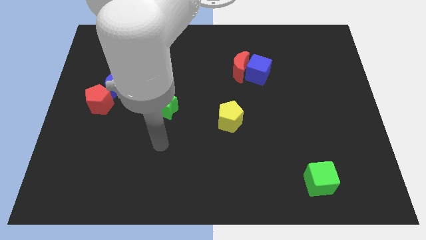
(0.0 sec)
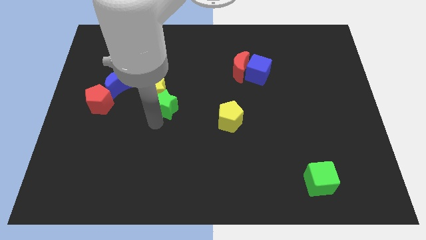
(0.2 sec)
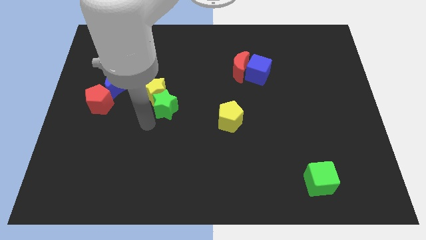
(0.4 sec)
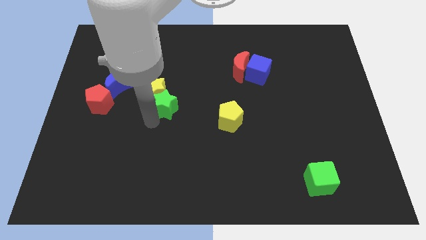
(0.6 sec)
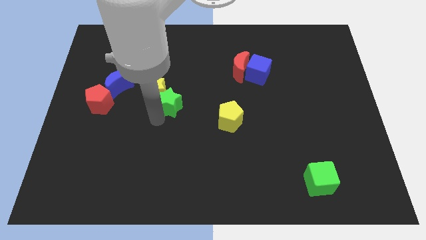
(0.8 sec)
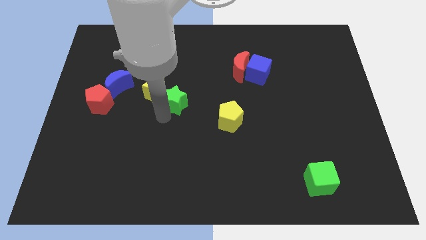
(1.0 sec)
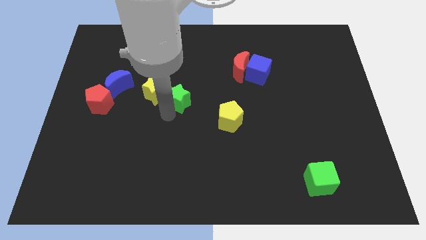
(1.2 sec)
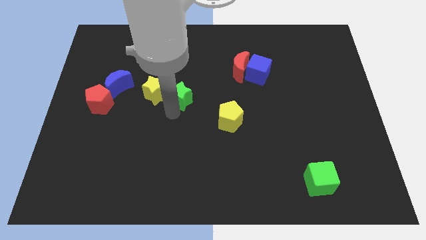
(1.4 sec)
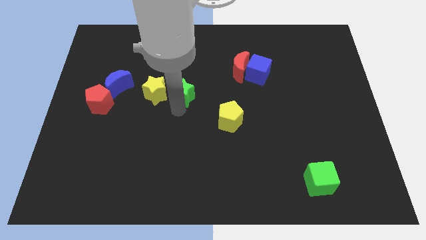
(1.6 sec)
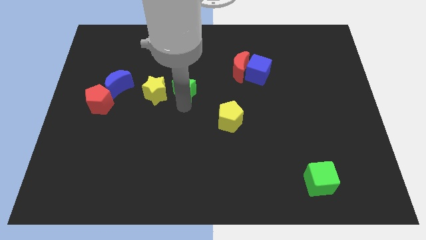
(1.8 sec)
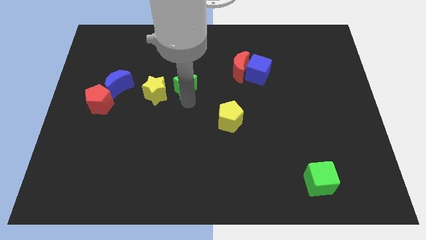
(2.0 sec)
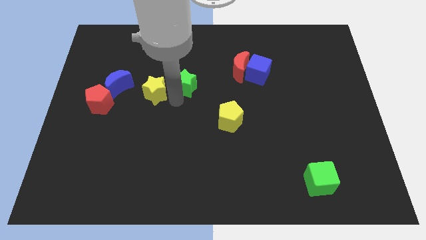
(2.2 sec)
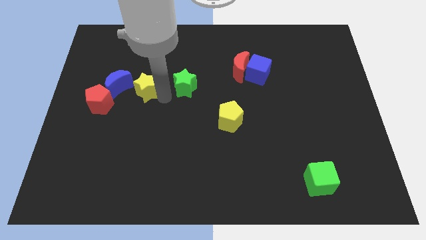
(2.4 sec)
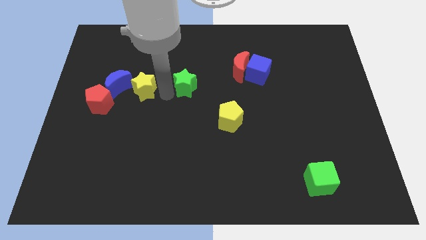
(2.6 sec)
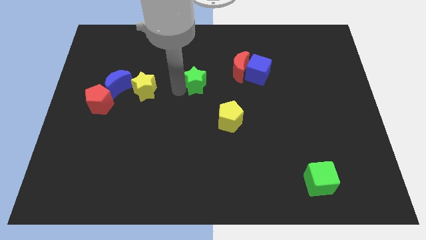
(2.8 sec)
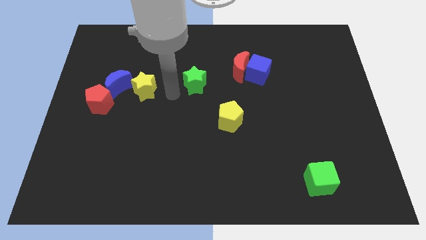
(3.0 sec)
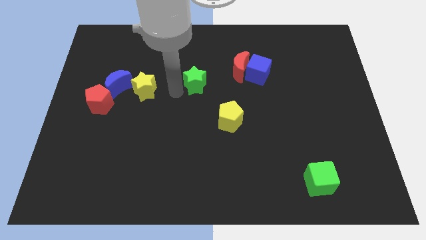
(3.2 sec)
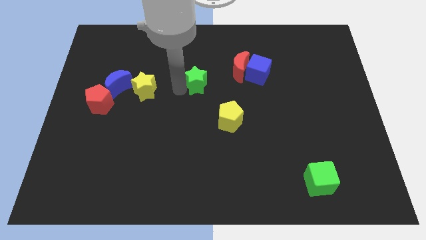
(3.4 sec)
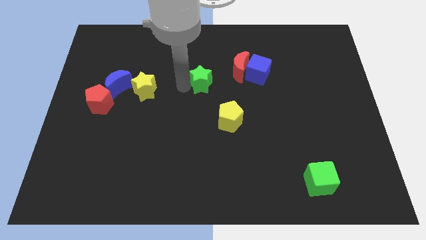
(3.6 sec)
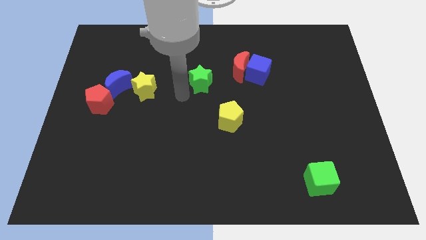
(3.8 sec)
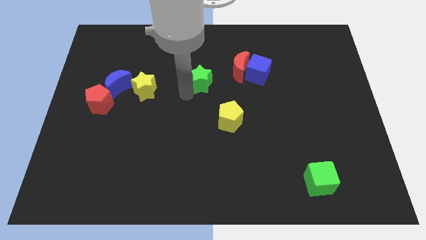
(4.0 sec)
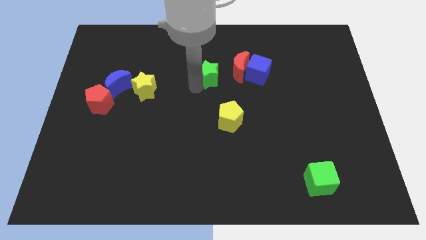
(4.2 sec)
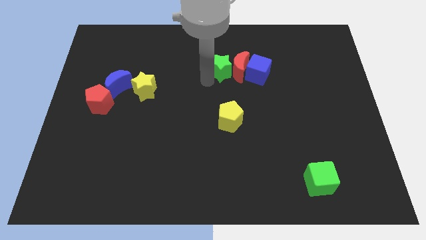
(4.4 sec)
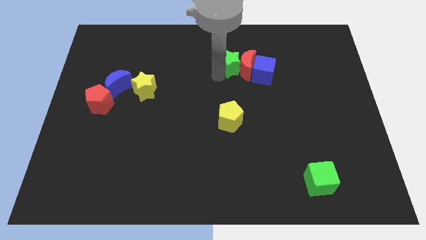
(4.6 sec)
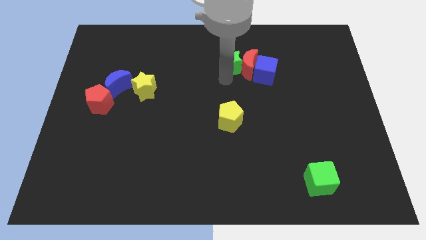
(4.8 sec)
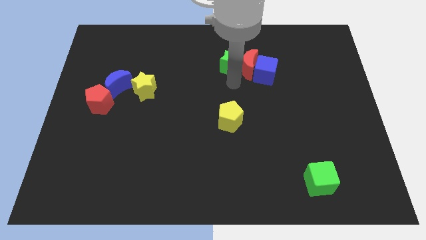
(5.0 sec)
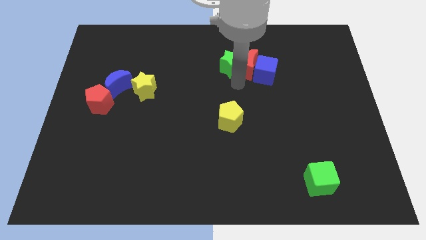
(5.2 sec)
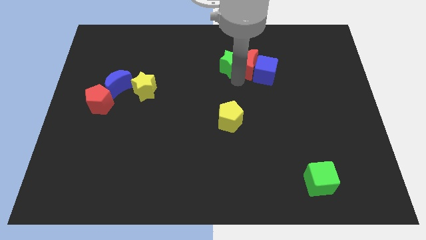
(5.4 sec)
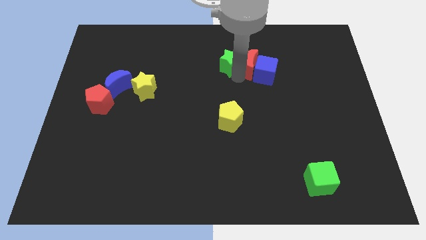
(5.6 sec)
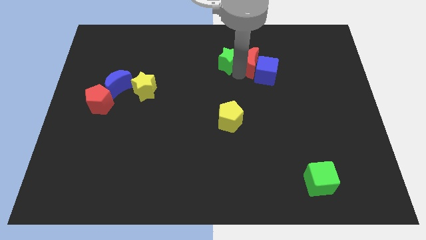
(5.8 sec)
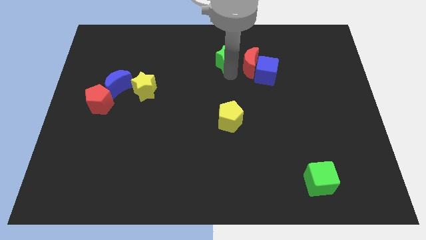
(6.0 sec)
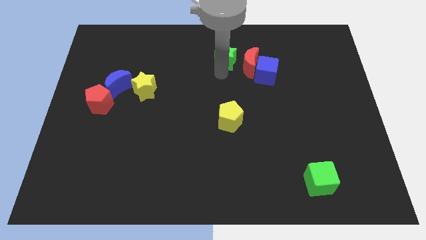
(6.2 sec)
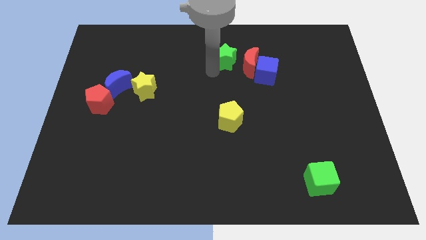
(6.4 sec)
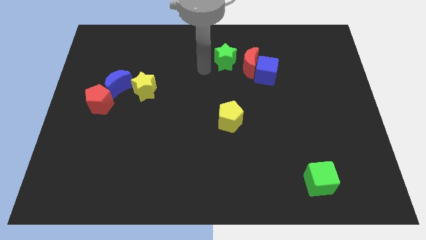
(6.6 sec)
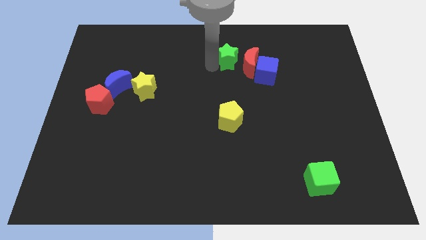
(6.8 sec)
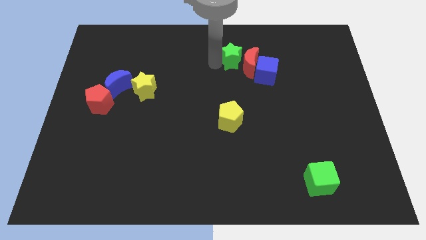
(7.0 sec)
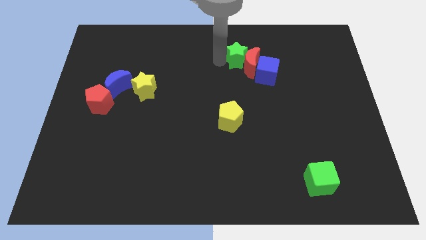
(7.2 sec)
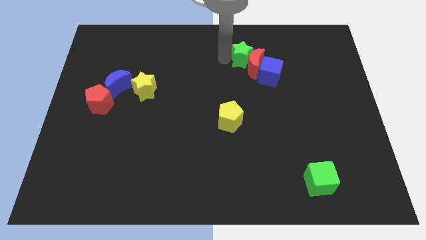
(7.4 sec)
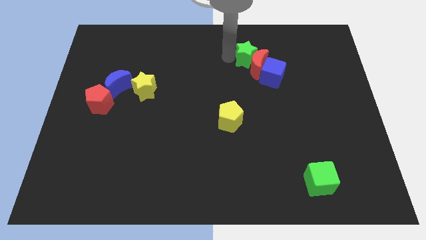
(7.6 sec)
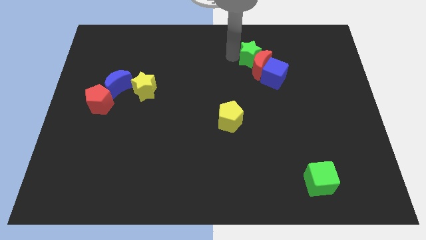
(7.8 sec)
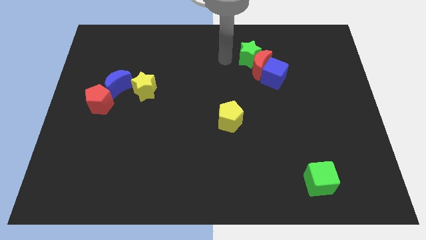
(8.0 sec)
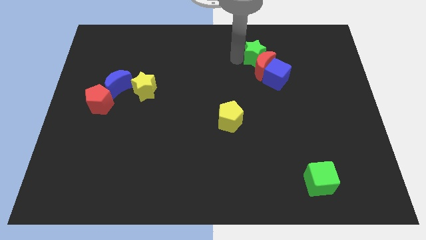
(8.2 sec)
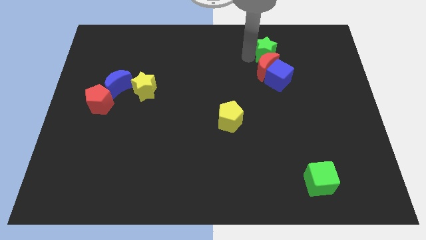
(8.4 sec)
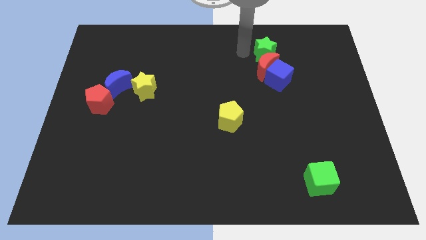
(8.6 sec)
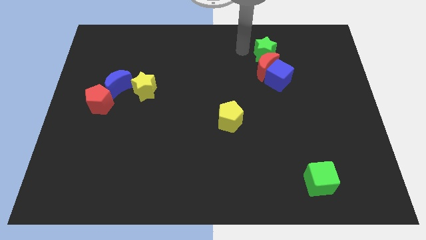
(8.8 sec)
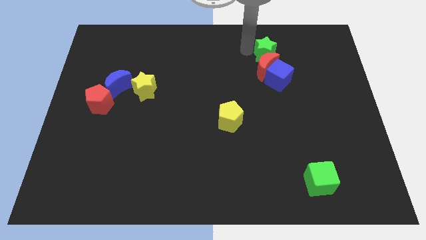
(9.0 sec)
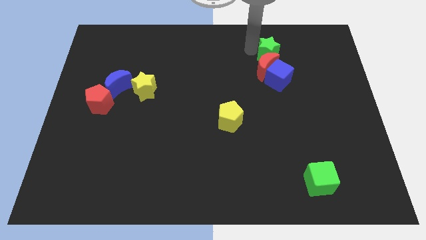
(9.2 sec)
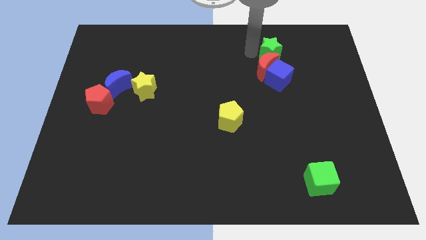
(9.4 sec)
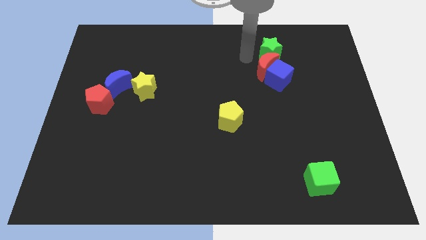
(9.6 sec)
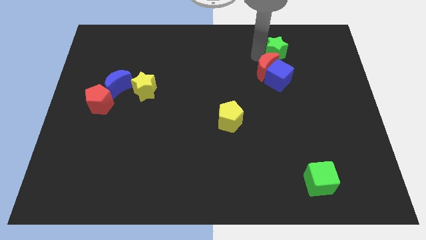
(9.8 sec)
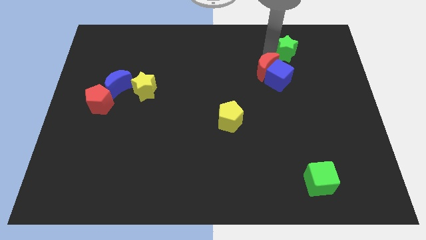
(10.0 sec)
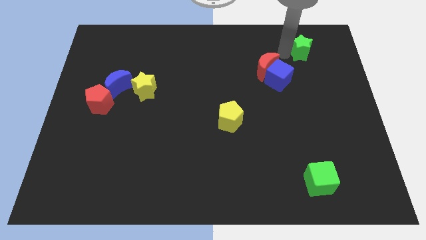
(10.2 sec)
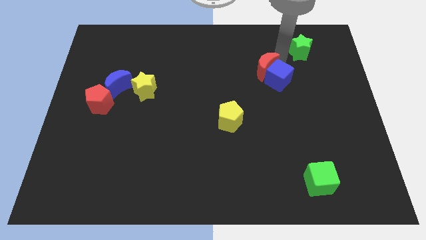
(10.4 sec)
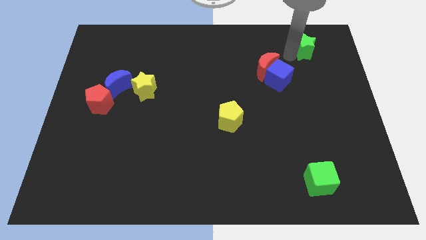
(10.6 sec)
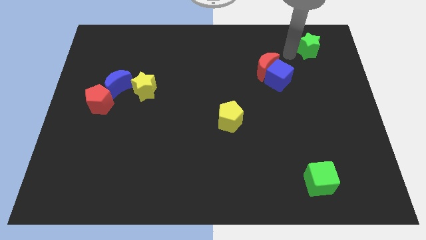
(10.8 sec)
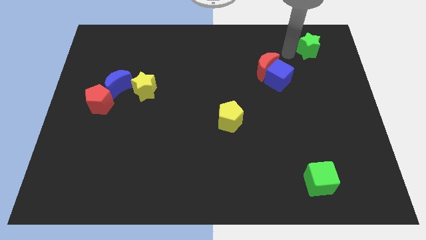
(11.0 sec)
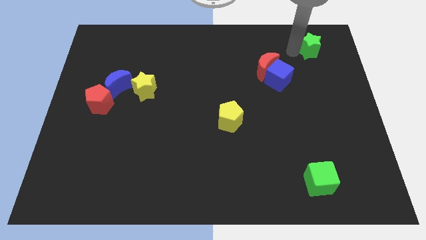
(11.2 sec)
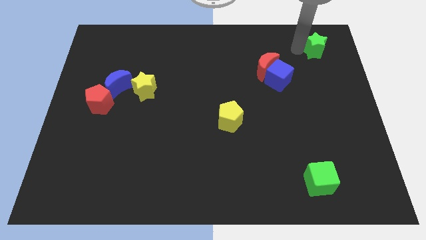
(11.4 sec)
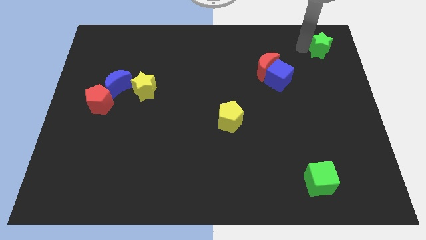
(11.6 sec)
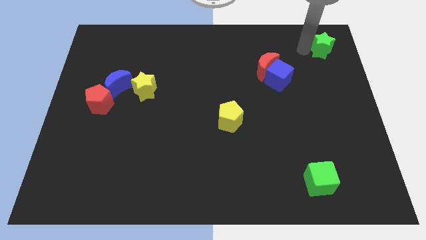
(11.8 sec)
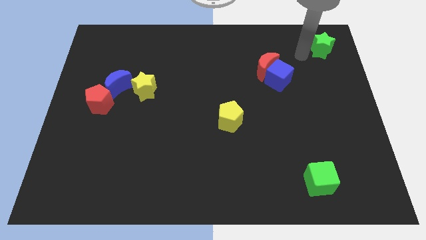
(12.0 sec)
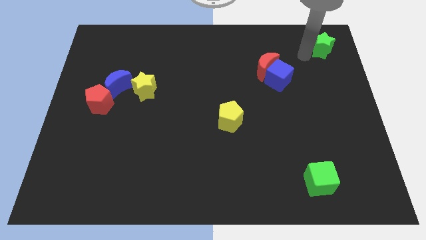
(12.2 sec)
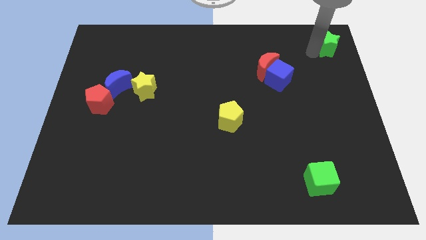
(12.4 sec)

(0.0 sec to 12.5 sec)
push the green star to the top right corner

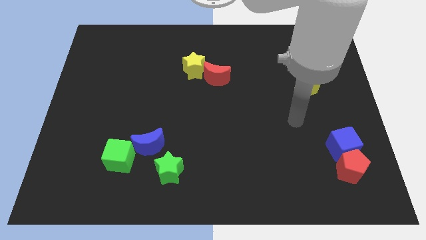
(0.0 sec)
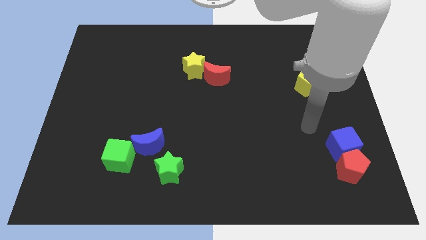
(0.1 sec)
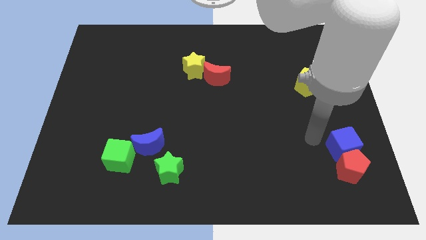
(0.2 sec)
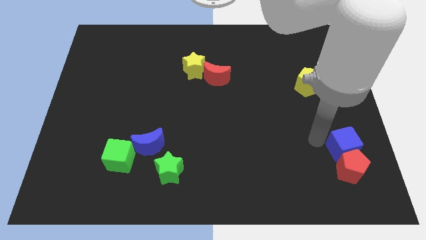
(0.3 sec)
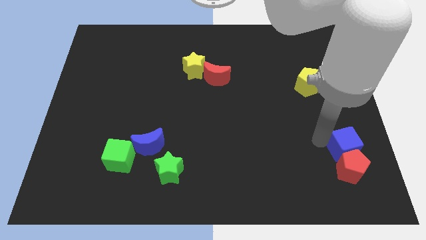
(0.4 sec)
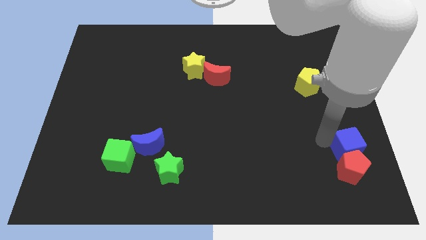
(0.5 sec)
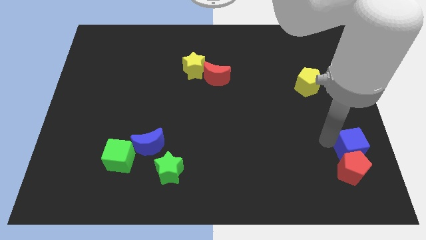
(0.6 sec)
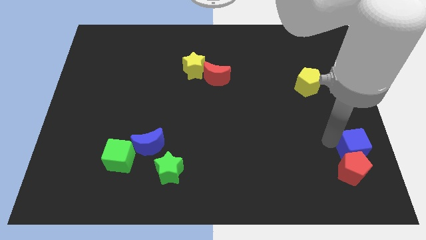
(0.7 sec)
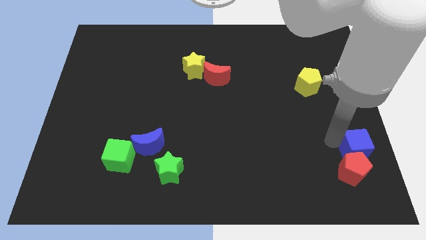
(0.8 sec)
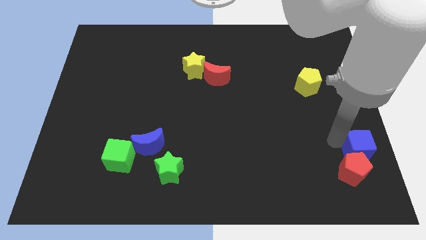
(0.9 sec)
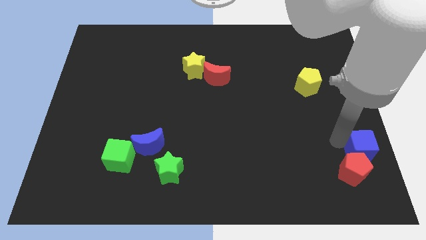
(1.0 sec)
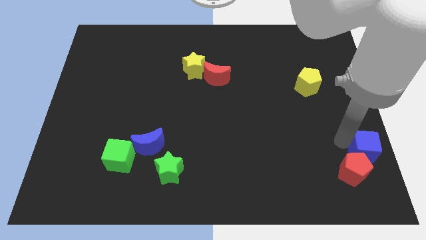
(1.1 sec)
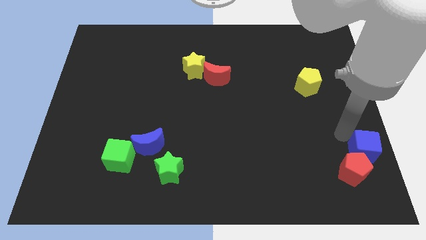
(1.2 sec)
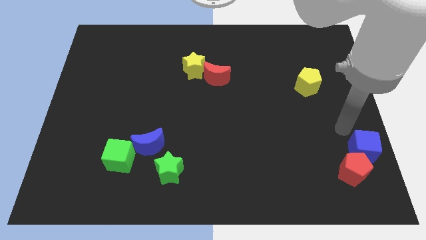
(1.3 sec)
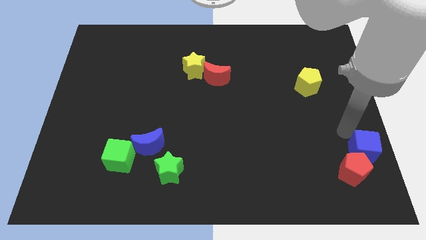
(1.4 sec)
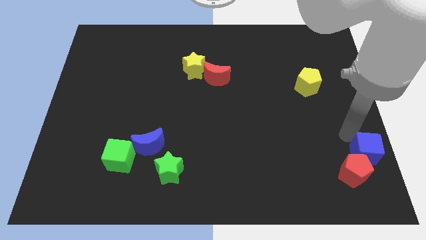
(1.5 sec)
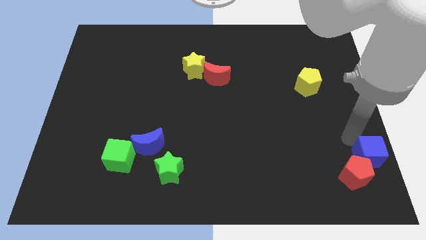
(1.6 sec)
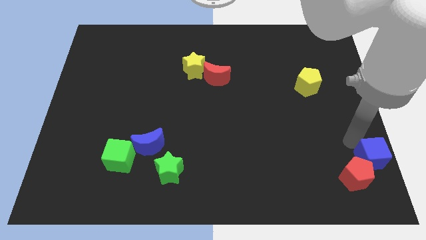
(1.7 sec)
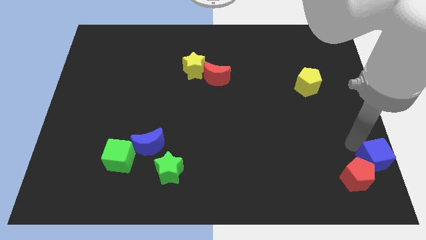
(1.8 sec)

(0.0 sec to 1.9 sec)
slide the blue cube to the bottom right corner
